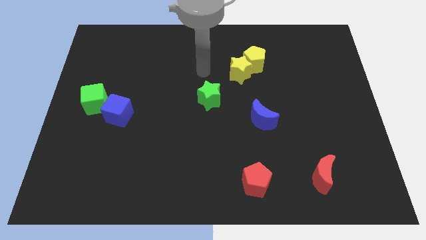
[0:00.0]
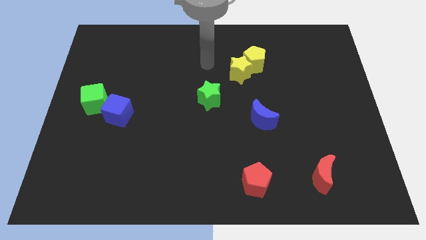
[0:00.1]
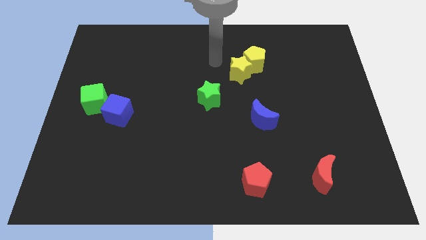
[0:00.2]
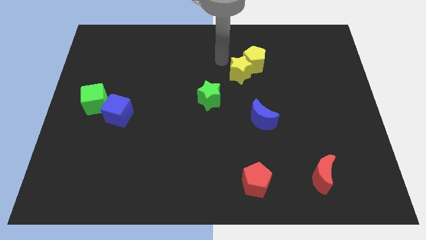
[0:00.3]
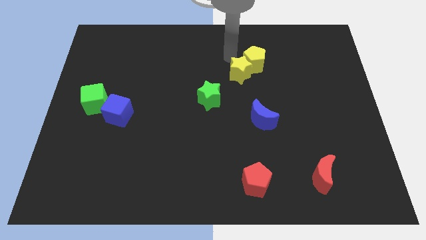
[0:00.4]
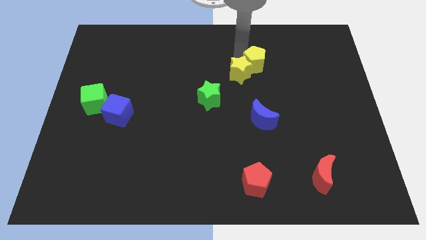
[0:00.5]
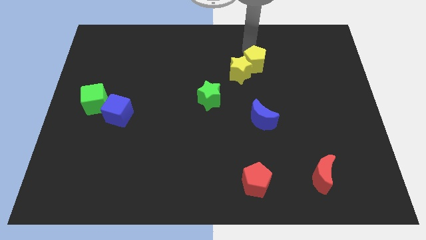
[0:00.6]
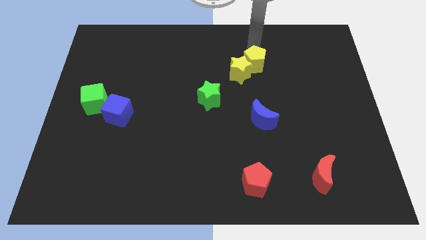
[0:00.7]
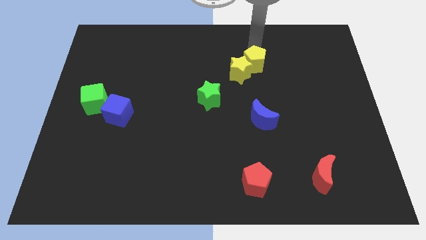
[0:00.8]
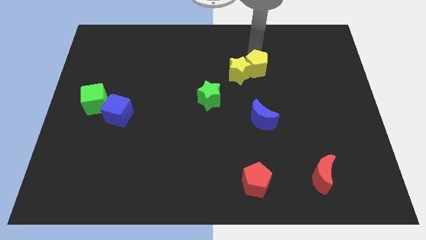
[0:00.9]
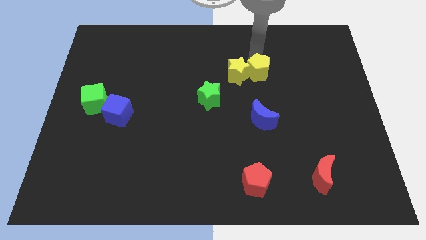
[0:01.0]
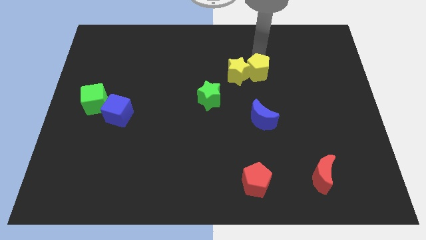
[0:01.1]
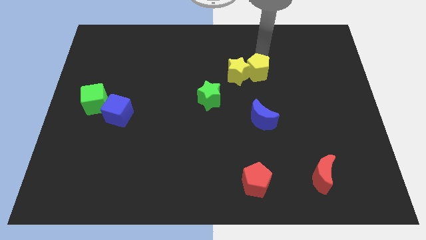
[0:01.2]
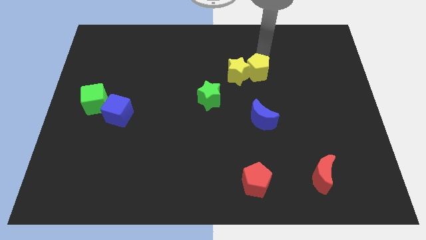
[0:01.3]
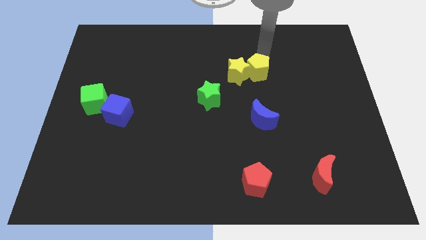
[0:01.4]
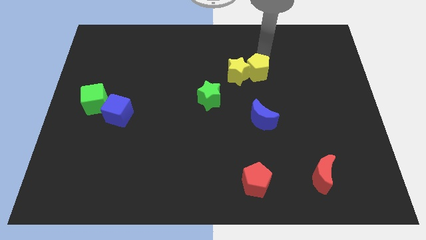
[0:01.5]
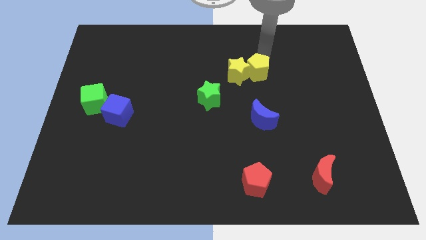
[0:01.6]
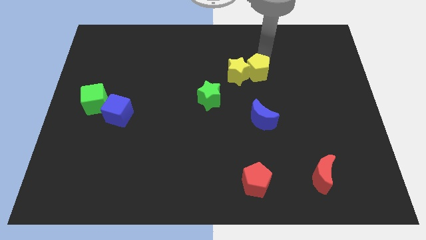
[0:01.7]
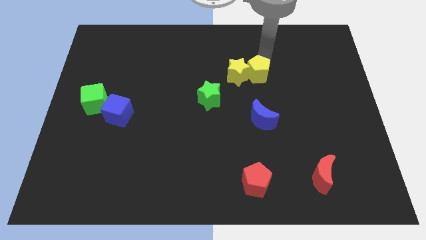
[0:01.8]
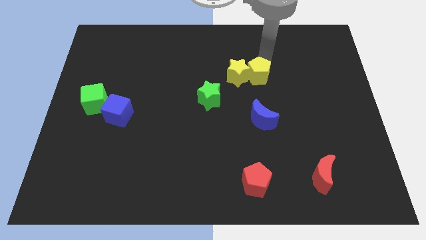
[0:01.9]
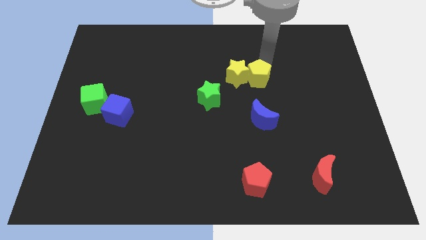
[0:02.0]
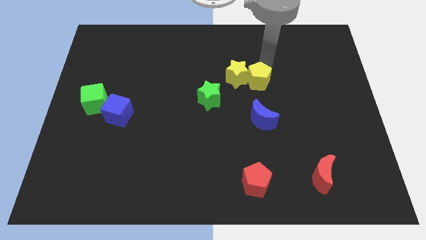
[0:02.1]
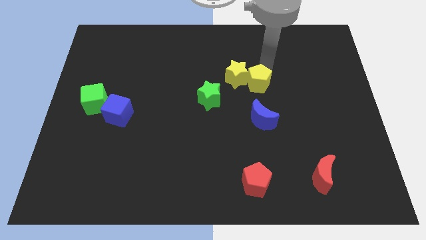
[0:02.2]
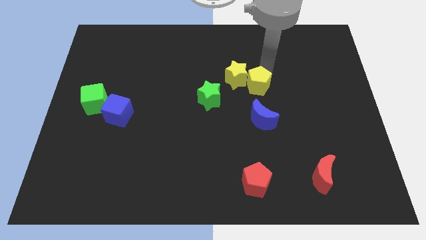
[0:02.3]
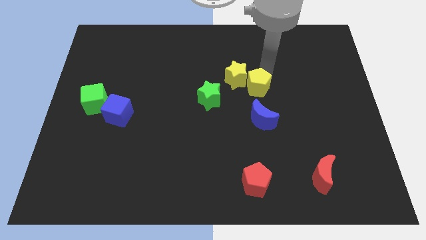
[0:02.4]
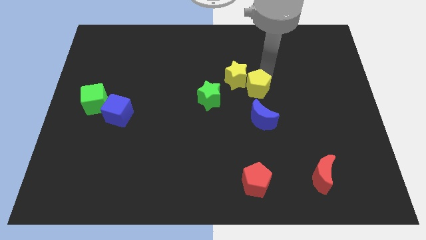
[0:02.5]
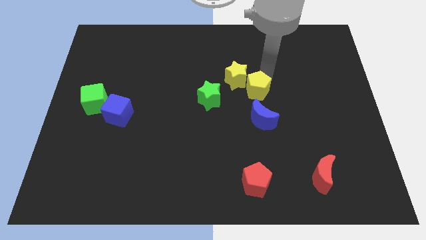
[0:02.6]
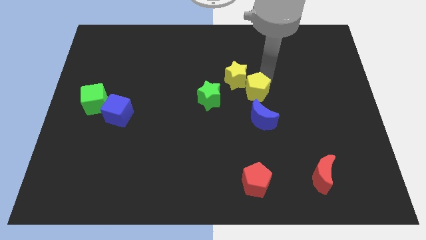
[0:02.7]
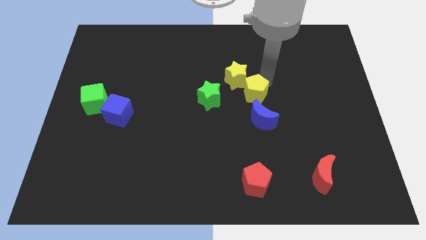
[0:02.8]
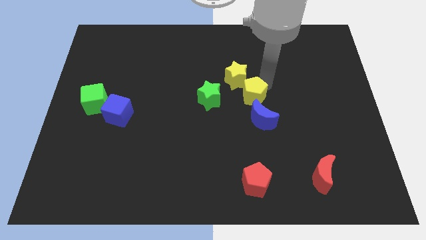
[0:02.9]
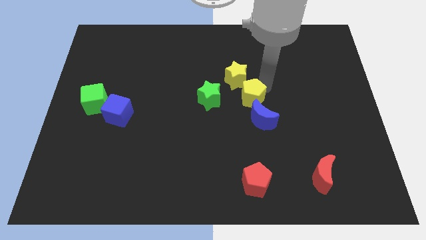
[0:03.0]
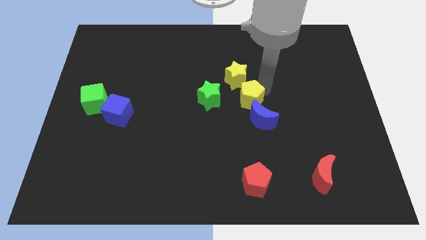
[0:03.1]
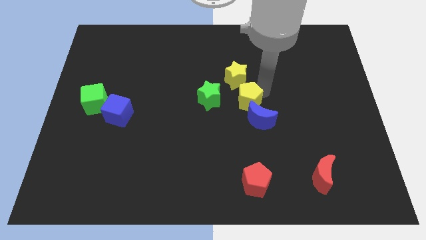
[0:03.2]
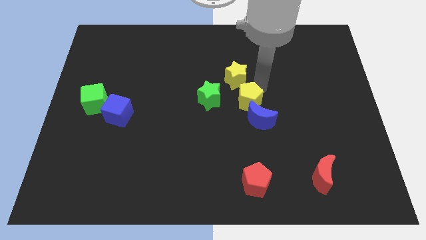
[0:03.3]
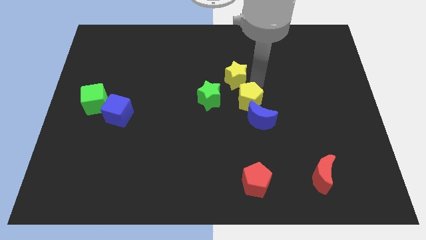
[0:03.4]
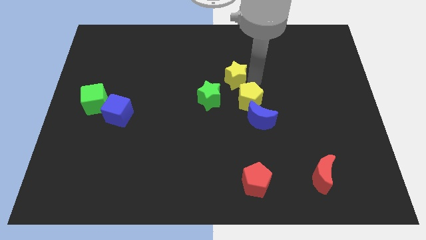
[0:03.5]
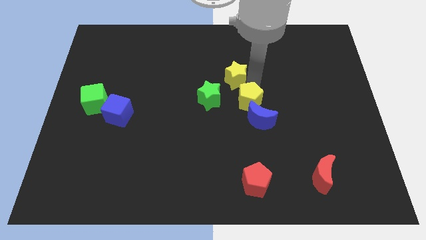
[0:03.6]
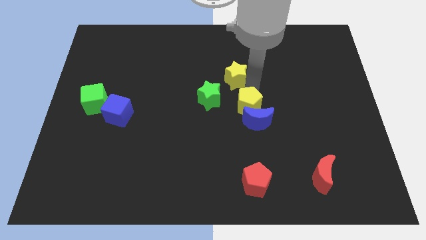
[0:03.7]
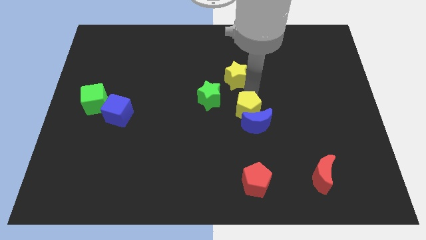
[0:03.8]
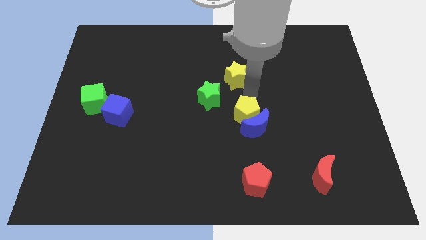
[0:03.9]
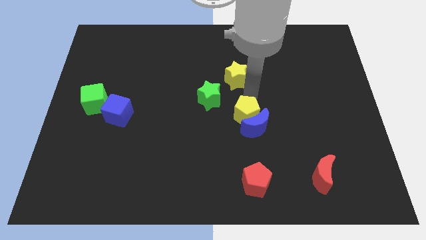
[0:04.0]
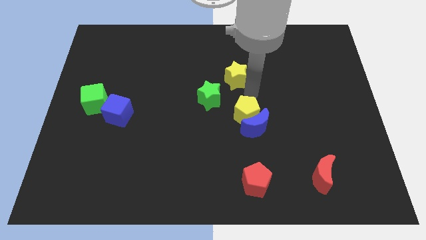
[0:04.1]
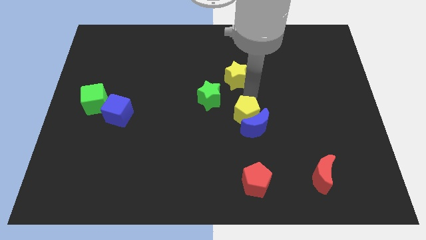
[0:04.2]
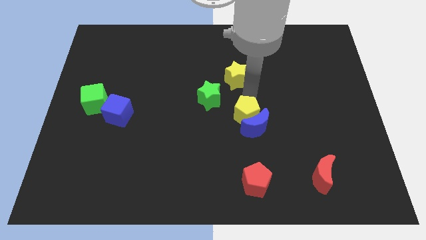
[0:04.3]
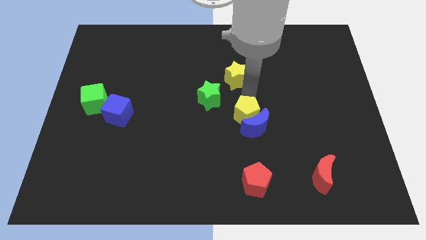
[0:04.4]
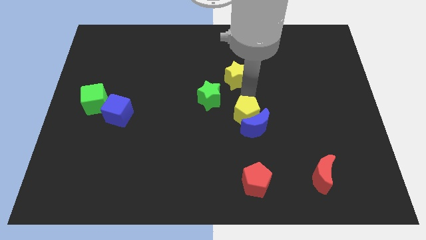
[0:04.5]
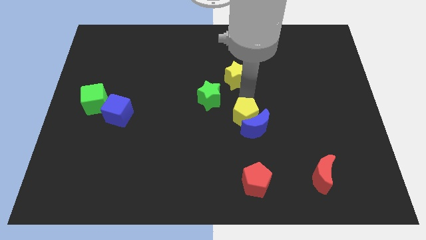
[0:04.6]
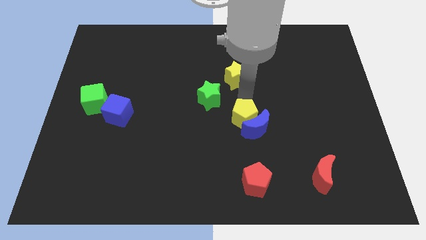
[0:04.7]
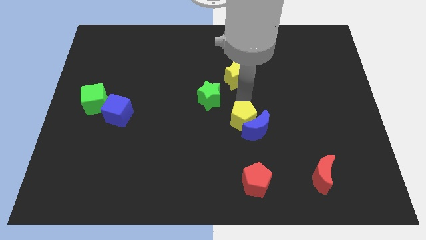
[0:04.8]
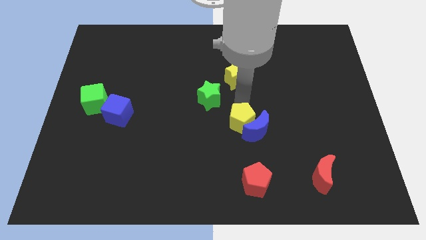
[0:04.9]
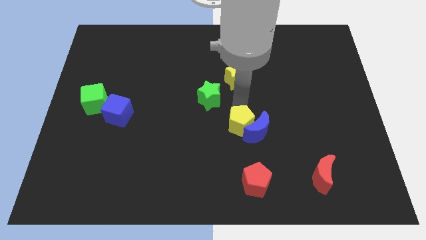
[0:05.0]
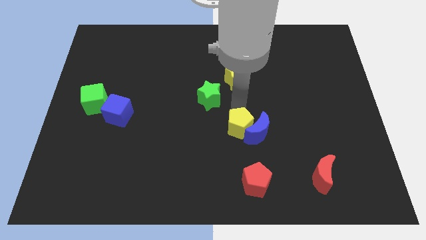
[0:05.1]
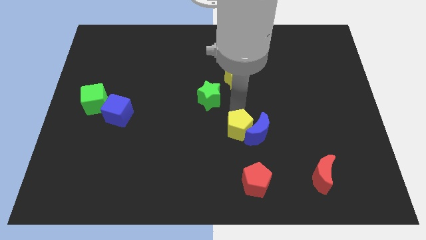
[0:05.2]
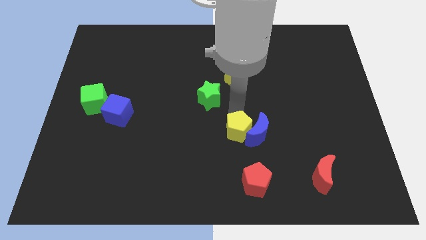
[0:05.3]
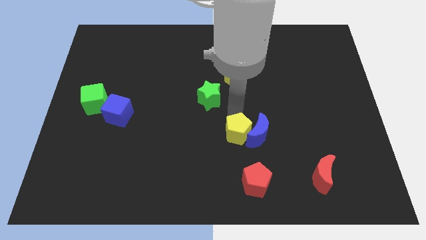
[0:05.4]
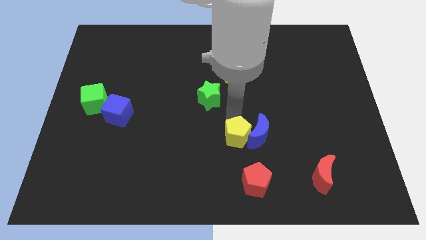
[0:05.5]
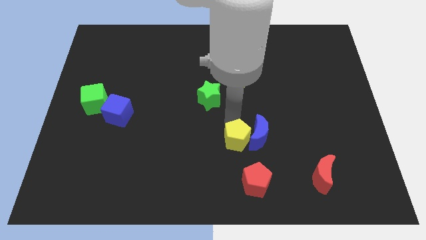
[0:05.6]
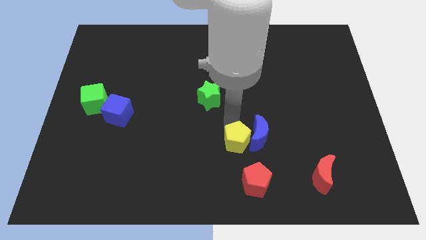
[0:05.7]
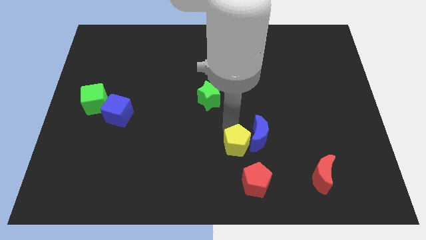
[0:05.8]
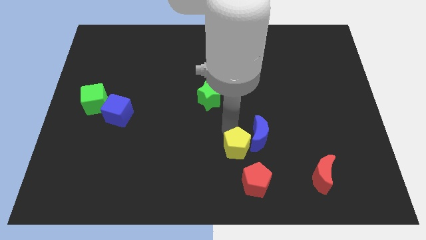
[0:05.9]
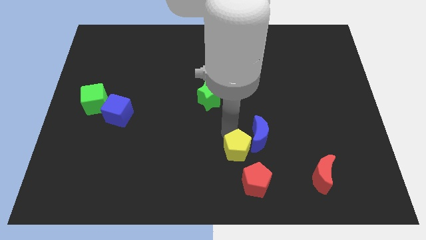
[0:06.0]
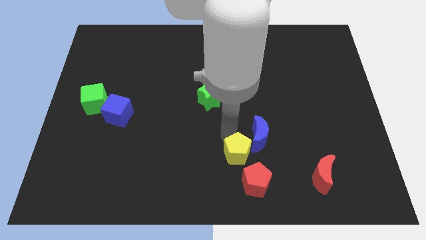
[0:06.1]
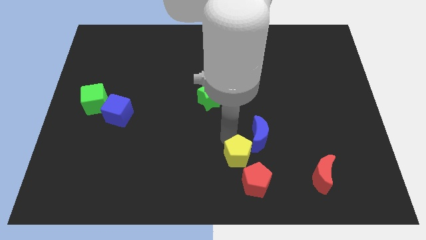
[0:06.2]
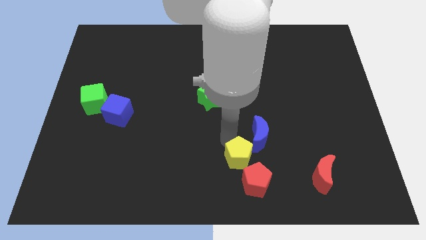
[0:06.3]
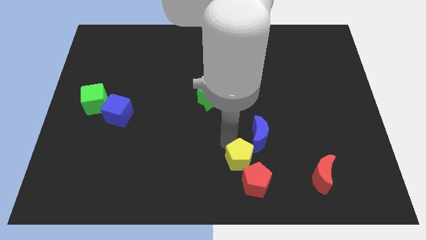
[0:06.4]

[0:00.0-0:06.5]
push the yellow pentagon close to the red pentagon

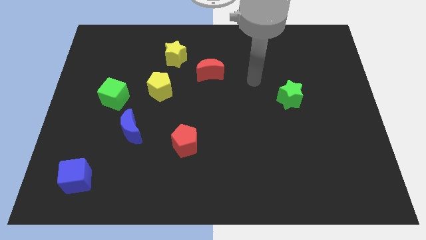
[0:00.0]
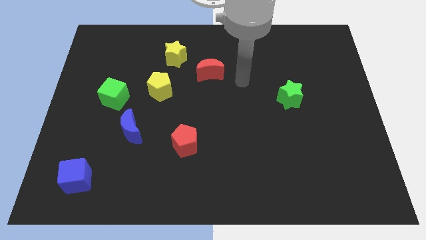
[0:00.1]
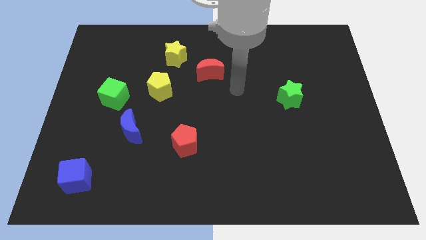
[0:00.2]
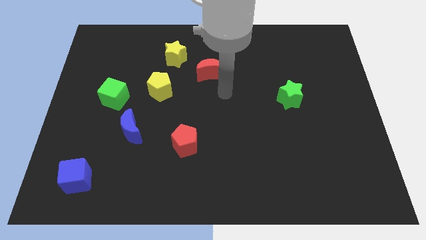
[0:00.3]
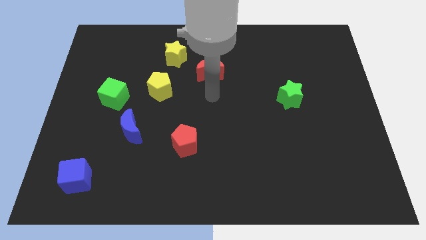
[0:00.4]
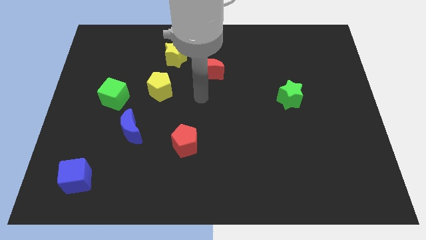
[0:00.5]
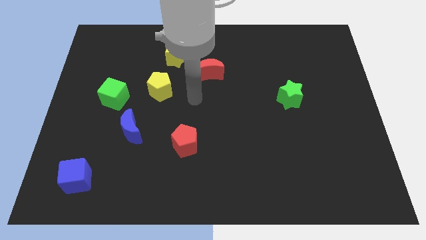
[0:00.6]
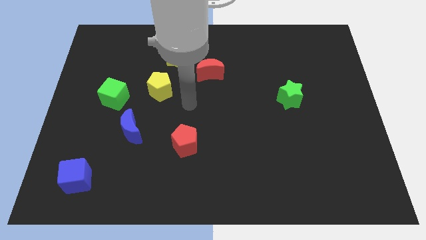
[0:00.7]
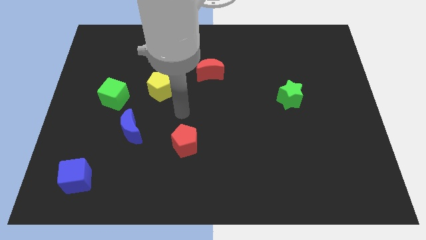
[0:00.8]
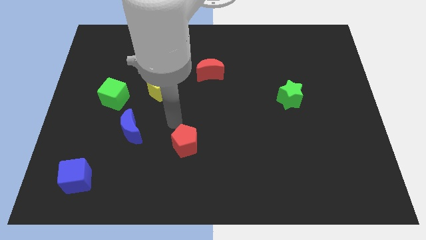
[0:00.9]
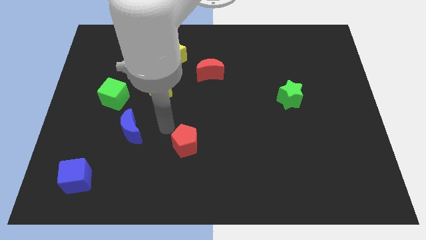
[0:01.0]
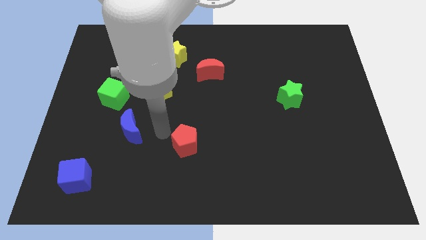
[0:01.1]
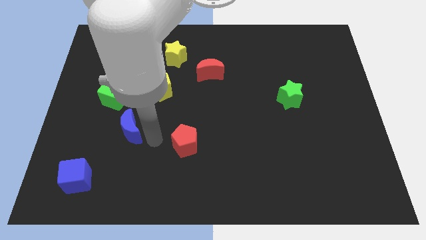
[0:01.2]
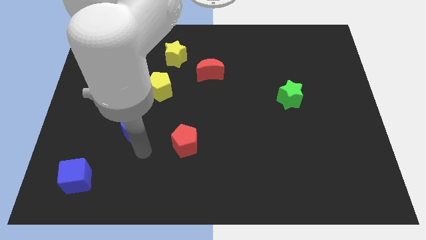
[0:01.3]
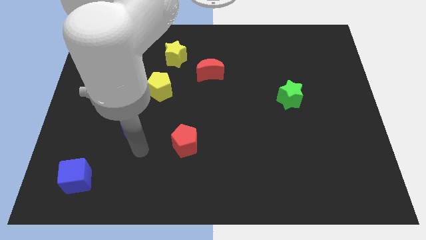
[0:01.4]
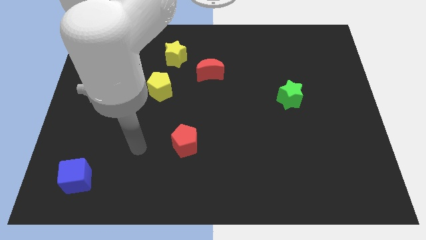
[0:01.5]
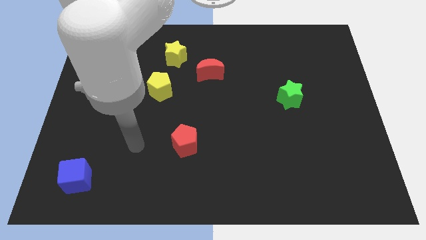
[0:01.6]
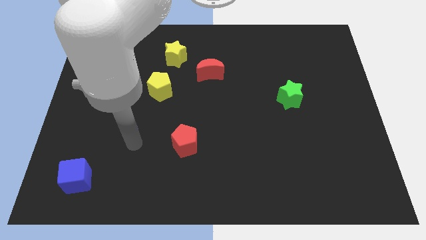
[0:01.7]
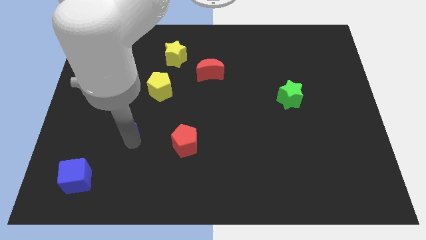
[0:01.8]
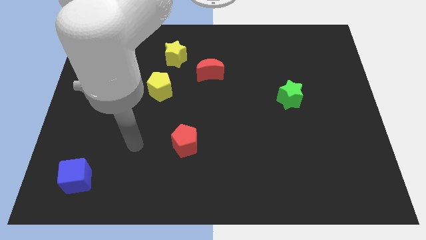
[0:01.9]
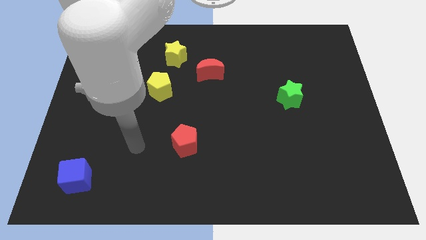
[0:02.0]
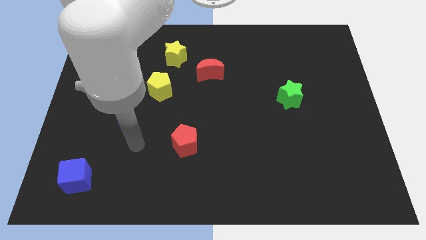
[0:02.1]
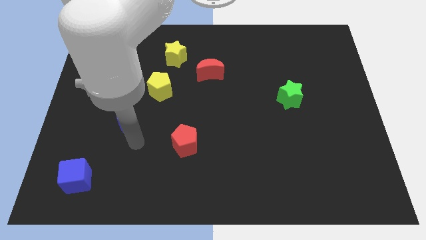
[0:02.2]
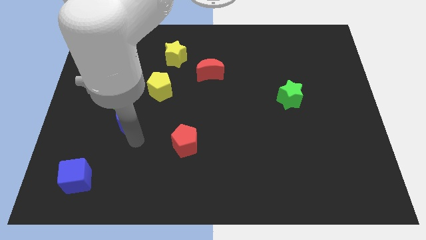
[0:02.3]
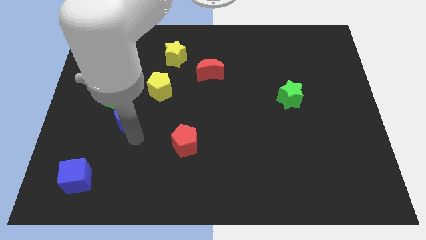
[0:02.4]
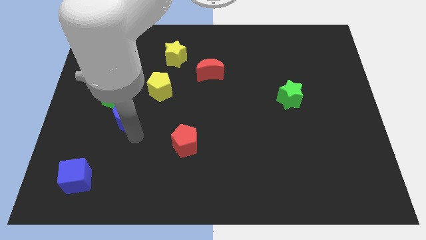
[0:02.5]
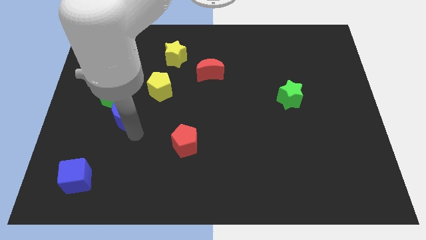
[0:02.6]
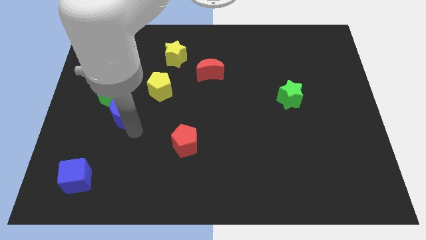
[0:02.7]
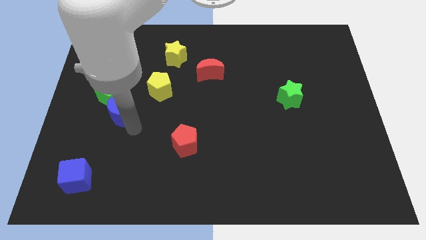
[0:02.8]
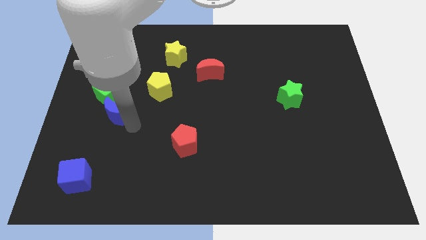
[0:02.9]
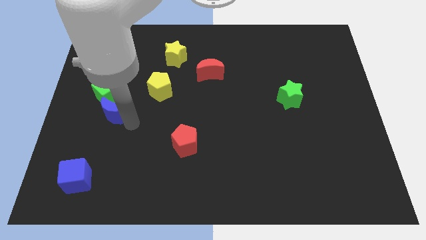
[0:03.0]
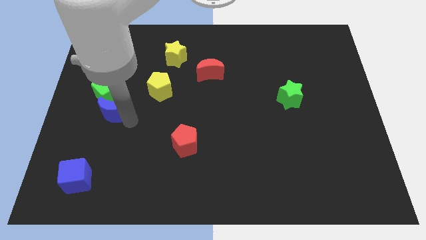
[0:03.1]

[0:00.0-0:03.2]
slide the blue moon next to the green cube
